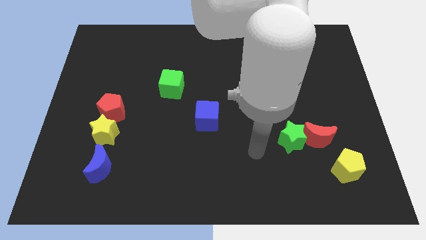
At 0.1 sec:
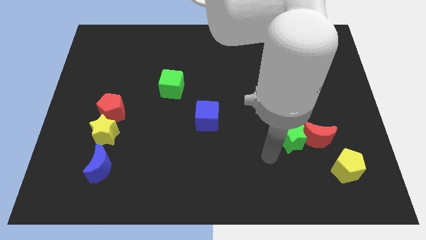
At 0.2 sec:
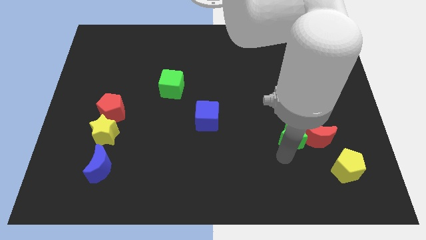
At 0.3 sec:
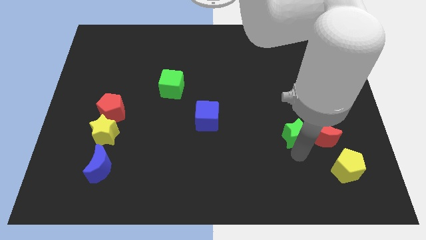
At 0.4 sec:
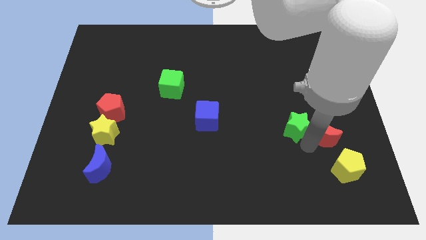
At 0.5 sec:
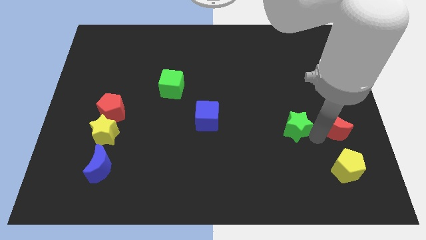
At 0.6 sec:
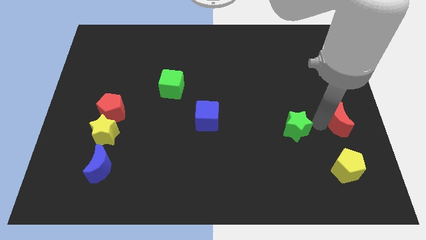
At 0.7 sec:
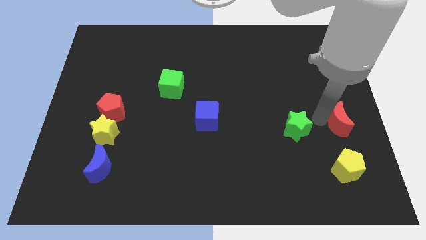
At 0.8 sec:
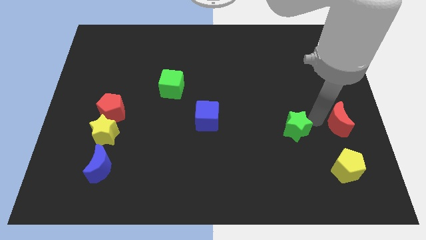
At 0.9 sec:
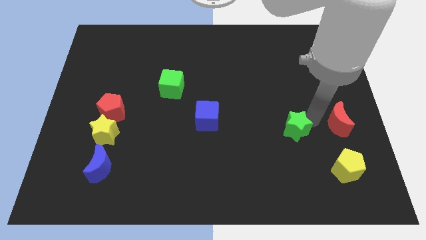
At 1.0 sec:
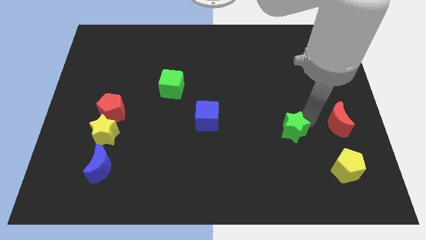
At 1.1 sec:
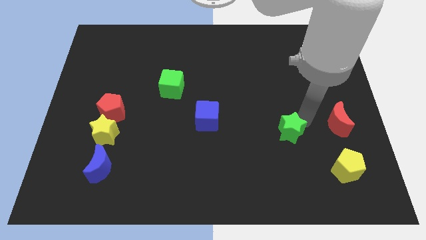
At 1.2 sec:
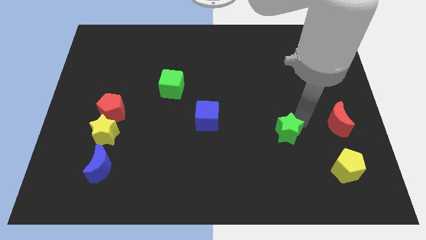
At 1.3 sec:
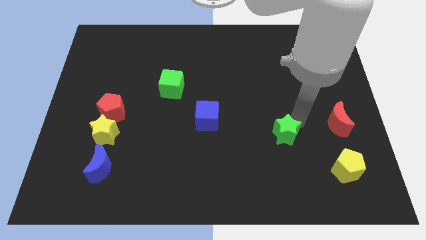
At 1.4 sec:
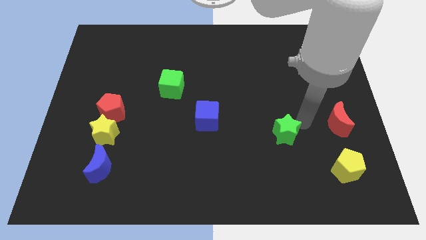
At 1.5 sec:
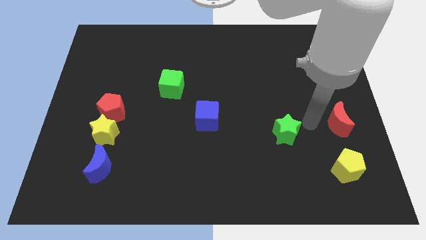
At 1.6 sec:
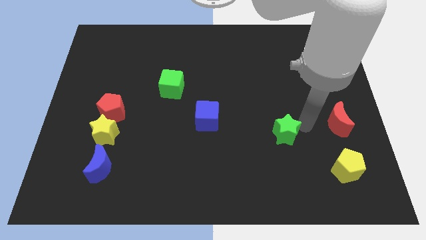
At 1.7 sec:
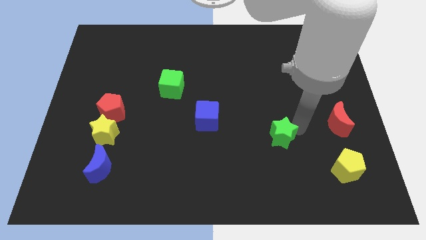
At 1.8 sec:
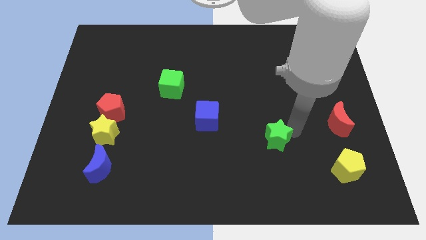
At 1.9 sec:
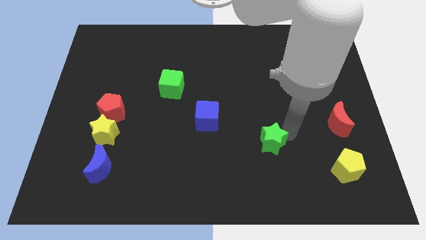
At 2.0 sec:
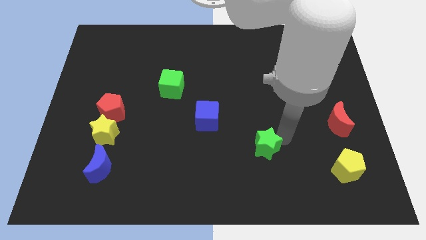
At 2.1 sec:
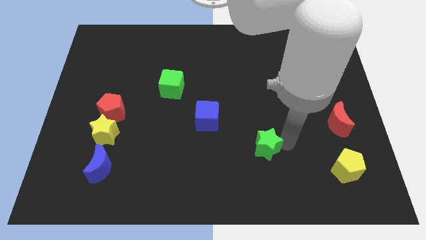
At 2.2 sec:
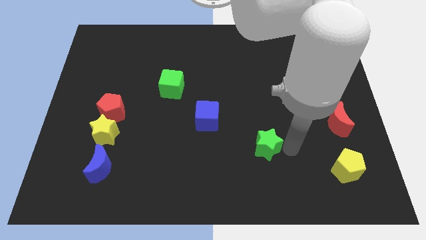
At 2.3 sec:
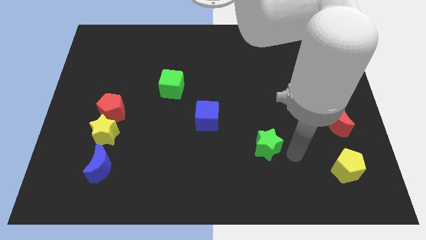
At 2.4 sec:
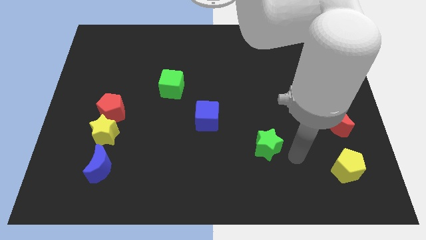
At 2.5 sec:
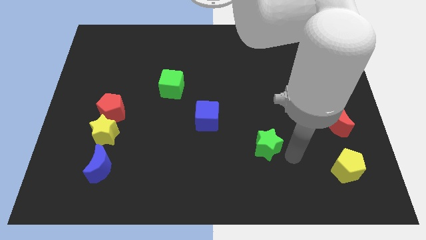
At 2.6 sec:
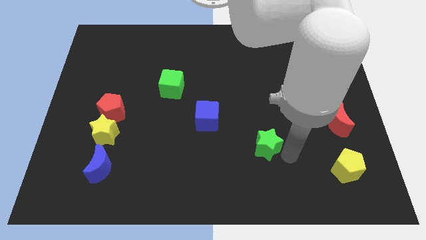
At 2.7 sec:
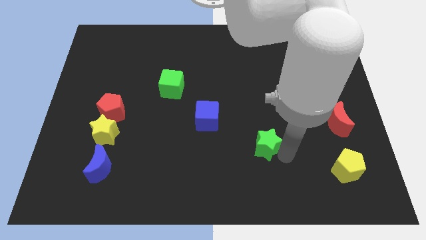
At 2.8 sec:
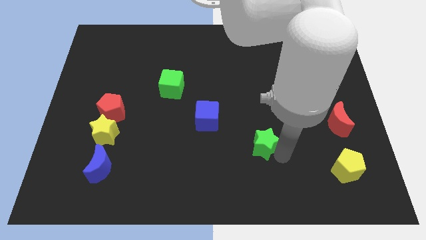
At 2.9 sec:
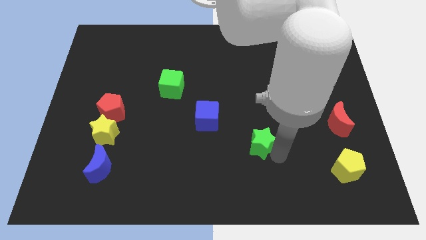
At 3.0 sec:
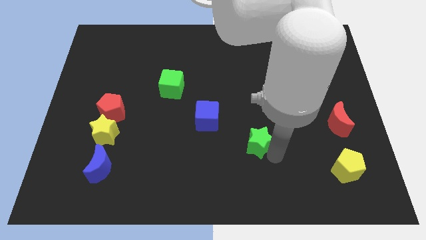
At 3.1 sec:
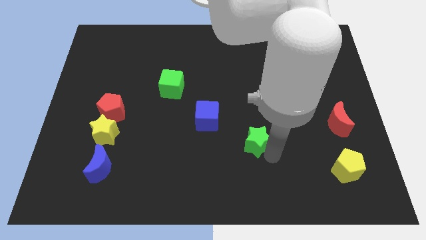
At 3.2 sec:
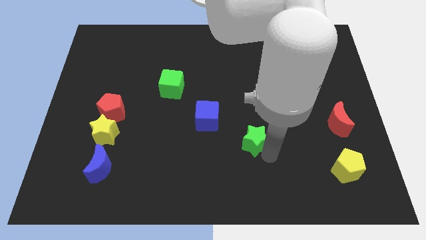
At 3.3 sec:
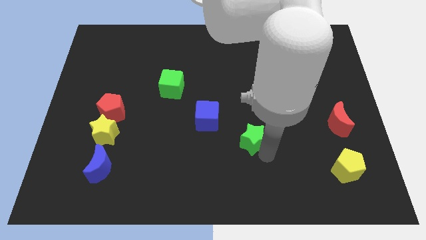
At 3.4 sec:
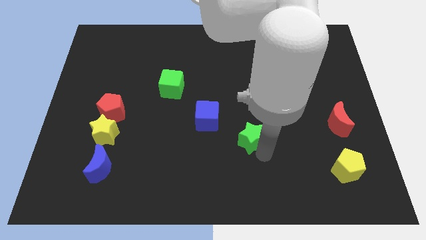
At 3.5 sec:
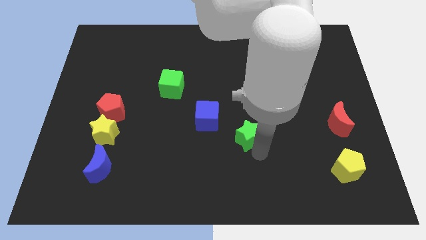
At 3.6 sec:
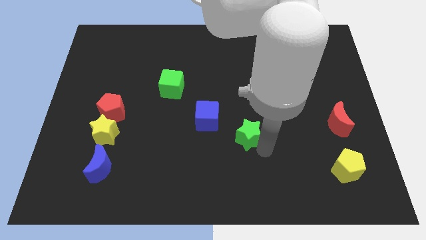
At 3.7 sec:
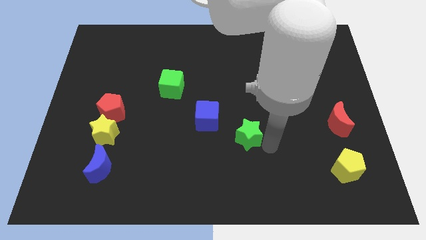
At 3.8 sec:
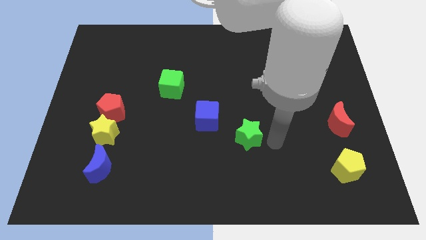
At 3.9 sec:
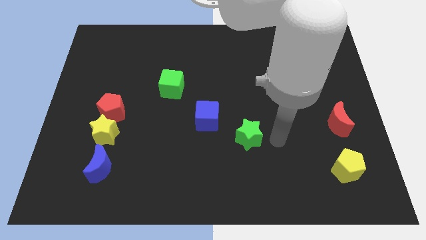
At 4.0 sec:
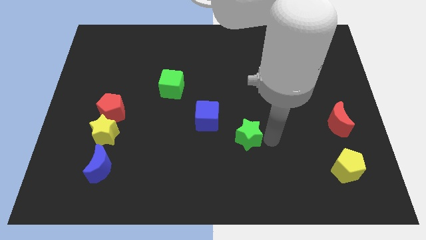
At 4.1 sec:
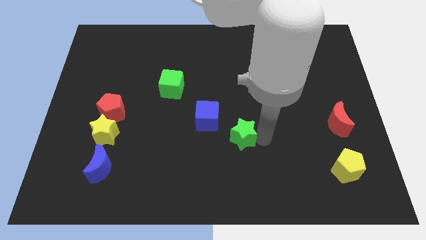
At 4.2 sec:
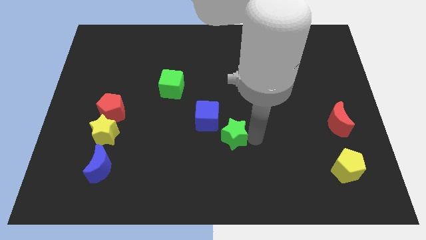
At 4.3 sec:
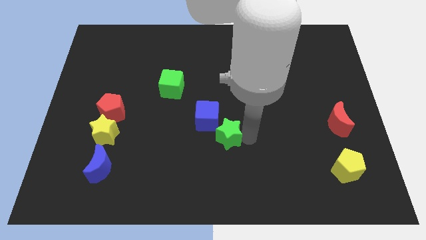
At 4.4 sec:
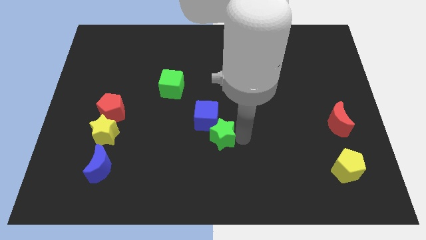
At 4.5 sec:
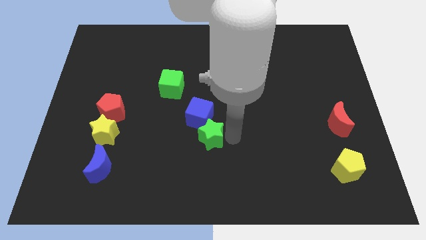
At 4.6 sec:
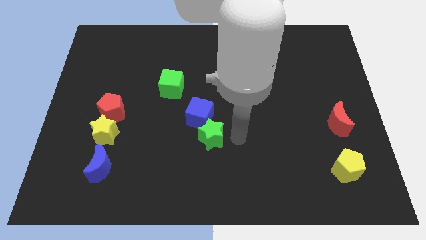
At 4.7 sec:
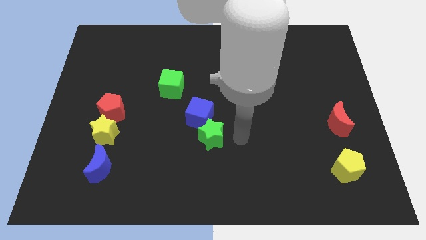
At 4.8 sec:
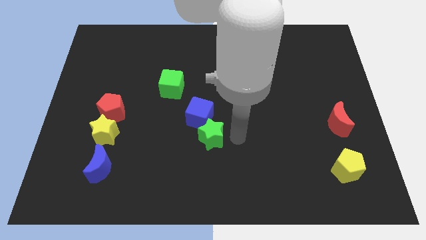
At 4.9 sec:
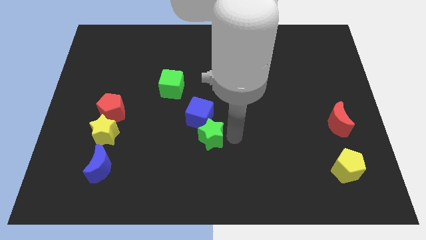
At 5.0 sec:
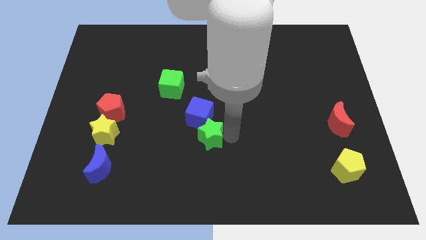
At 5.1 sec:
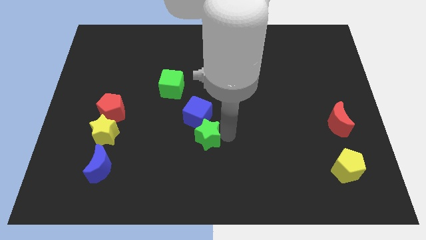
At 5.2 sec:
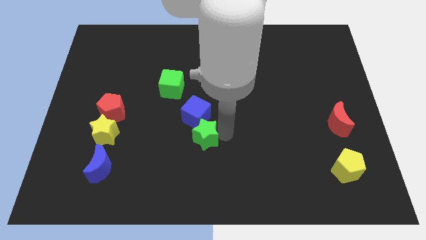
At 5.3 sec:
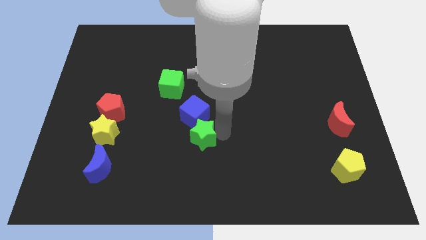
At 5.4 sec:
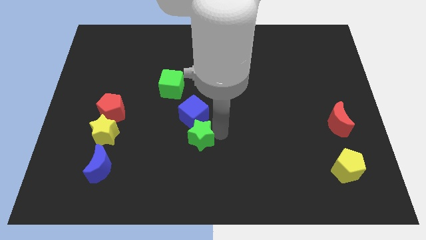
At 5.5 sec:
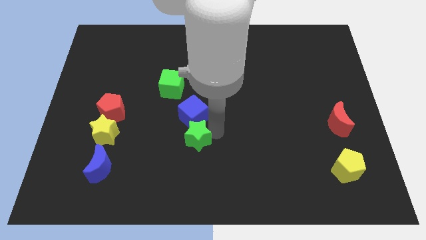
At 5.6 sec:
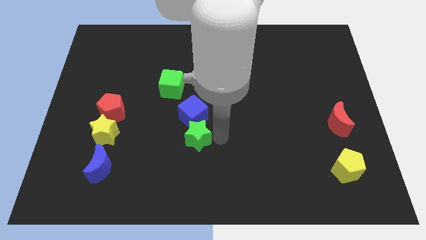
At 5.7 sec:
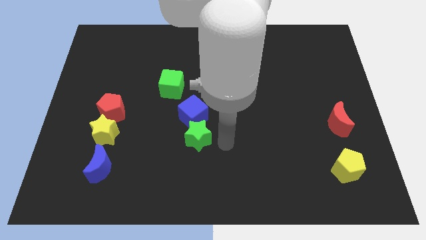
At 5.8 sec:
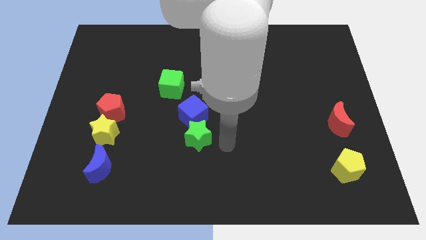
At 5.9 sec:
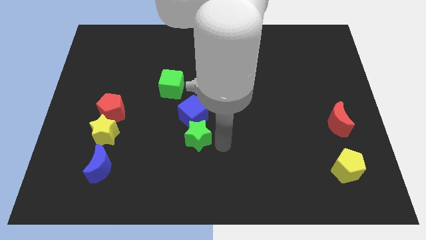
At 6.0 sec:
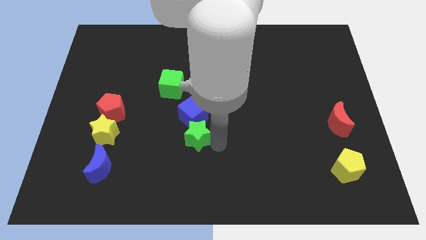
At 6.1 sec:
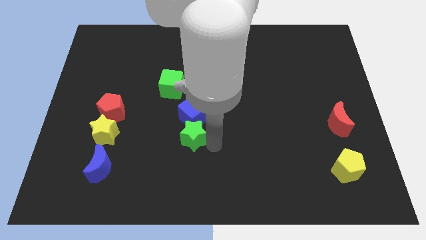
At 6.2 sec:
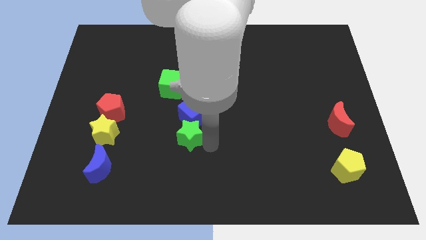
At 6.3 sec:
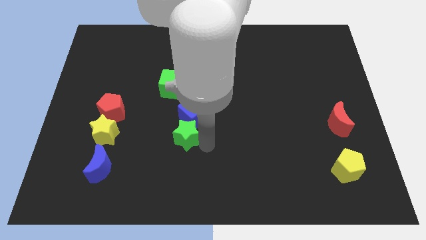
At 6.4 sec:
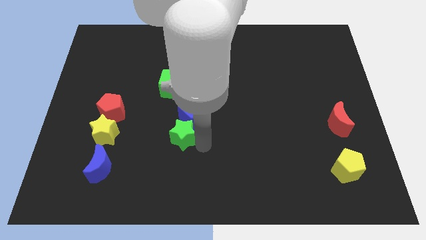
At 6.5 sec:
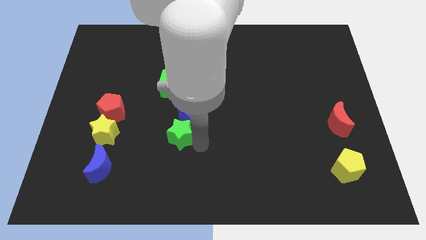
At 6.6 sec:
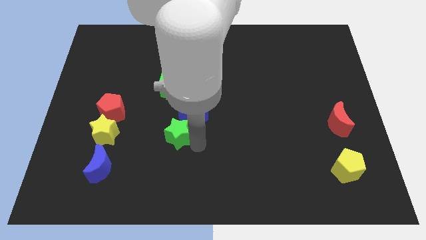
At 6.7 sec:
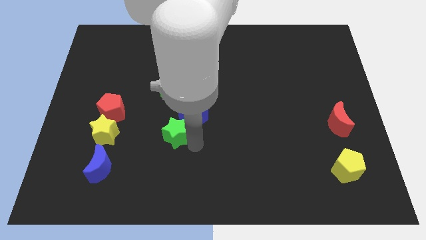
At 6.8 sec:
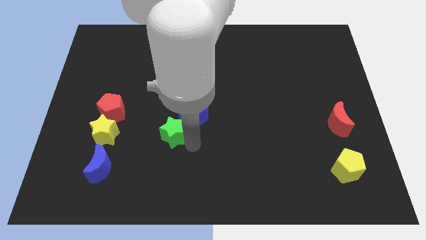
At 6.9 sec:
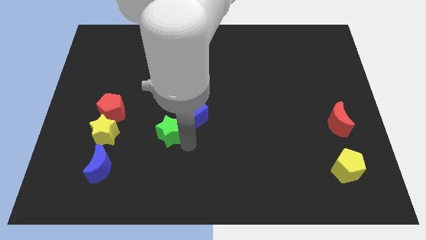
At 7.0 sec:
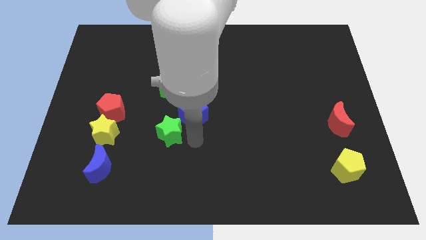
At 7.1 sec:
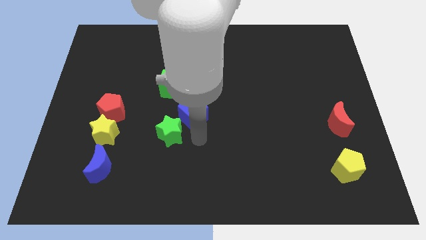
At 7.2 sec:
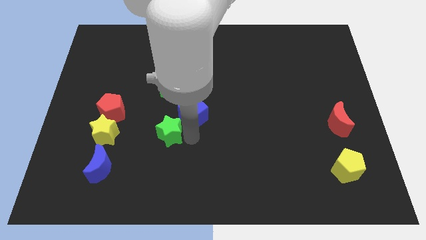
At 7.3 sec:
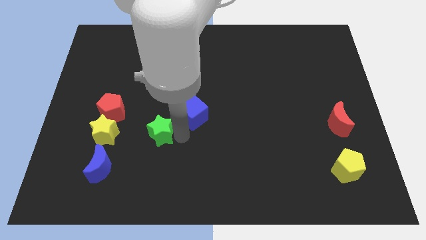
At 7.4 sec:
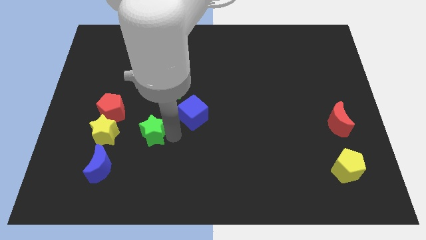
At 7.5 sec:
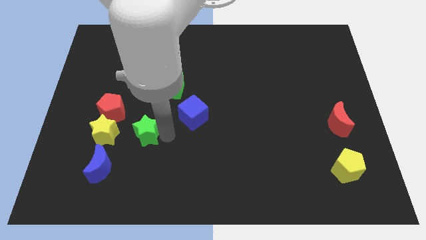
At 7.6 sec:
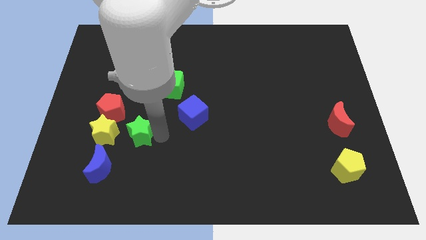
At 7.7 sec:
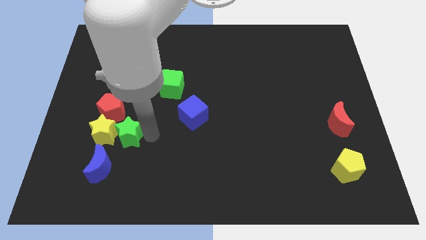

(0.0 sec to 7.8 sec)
slide the green star towards the yellow star
